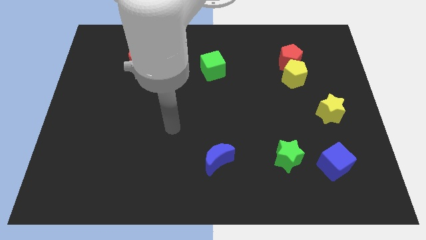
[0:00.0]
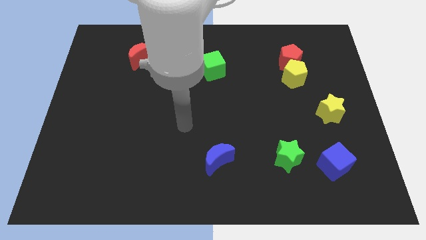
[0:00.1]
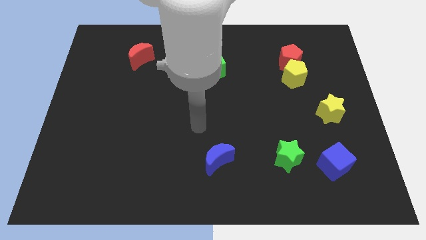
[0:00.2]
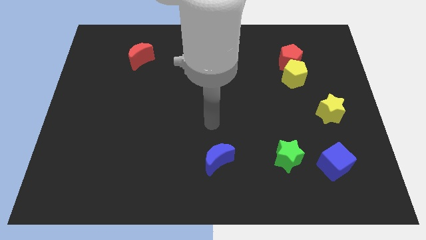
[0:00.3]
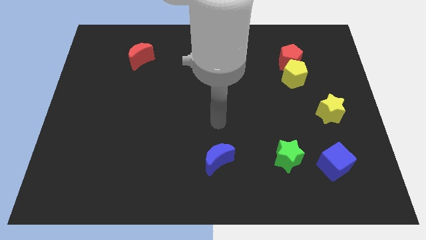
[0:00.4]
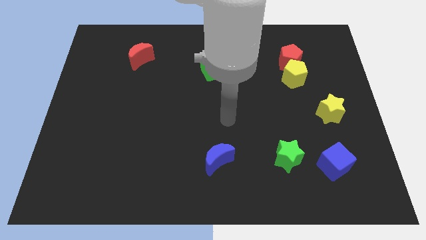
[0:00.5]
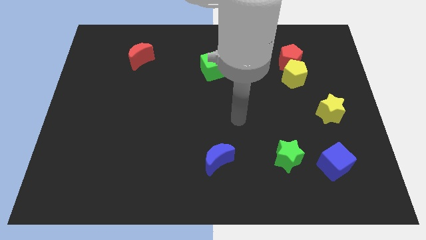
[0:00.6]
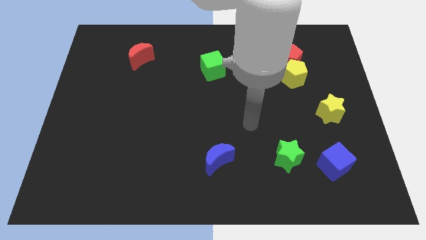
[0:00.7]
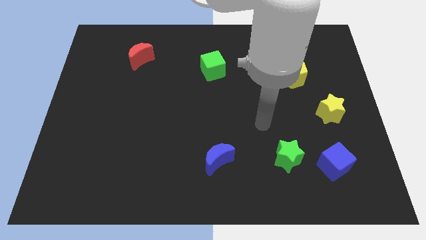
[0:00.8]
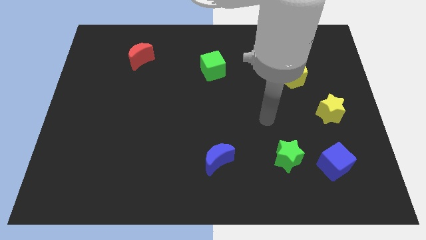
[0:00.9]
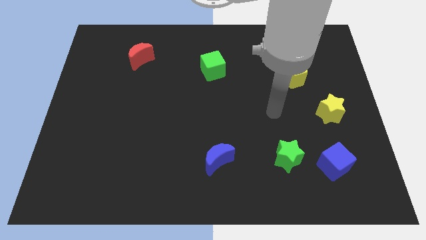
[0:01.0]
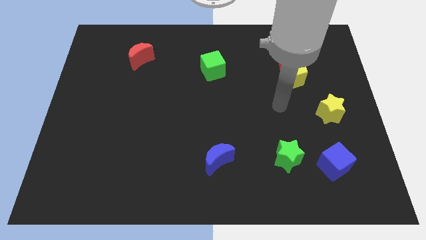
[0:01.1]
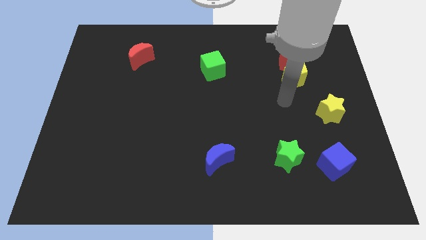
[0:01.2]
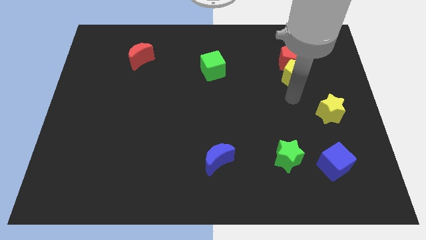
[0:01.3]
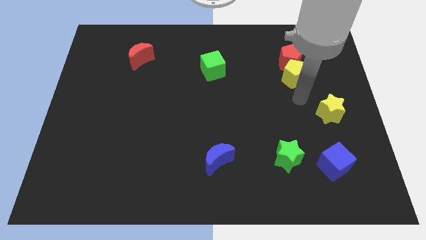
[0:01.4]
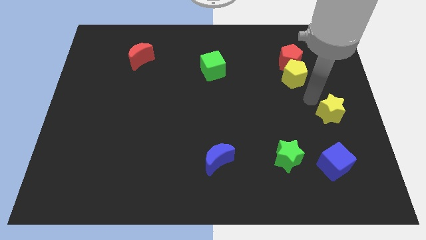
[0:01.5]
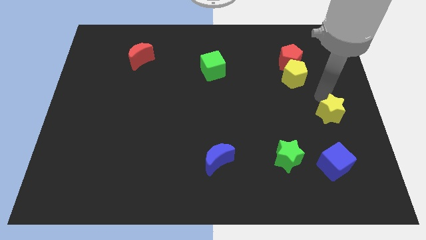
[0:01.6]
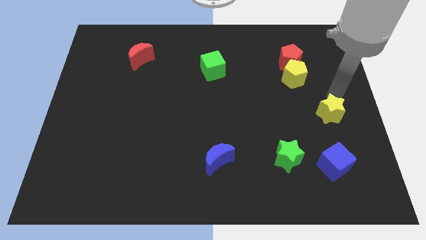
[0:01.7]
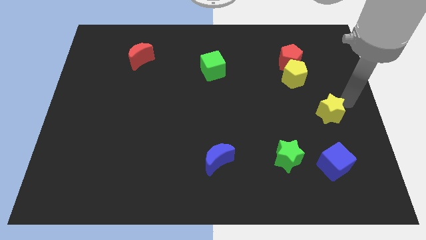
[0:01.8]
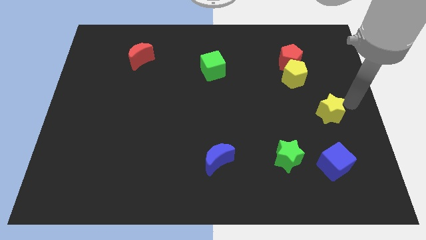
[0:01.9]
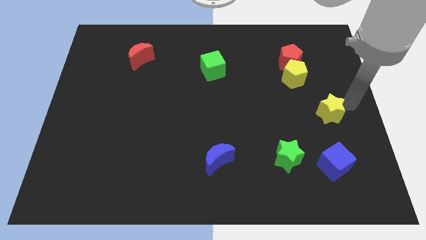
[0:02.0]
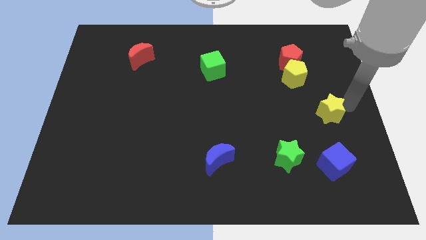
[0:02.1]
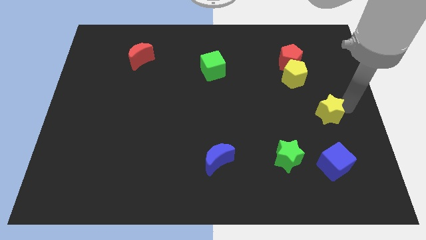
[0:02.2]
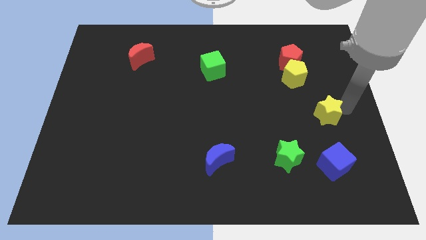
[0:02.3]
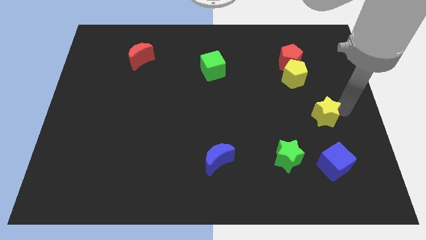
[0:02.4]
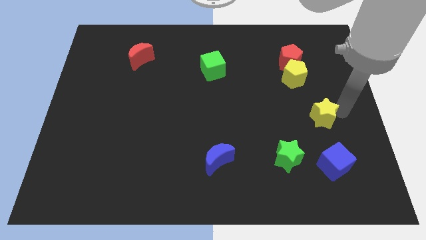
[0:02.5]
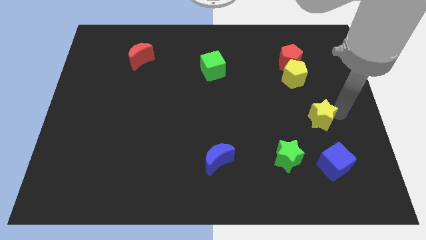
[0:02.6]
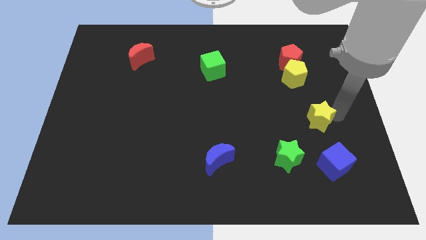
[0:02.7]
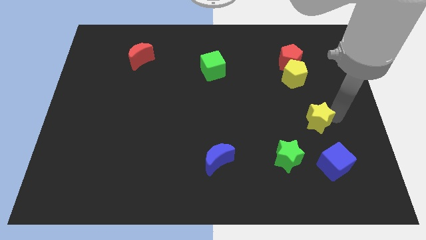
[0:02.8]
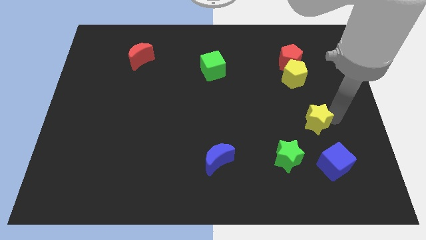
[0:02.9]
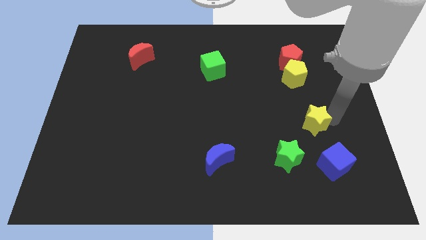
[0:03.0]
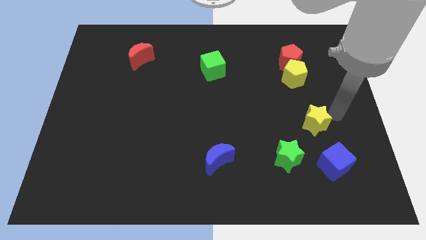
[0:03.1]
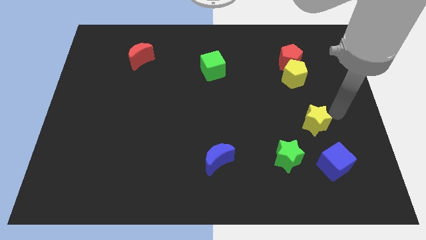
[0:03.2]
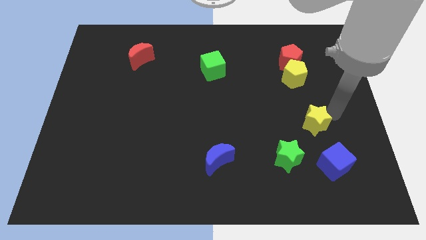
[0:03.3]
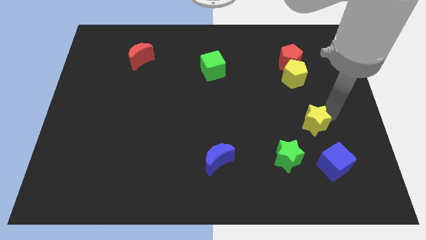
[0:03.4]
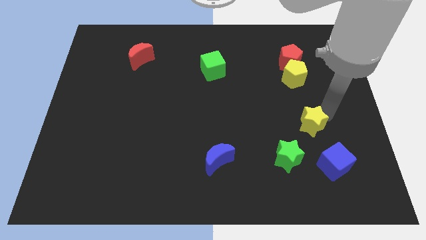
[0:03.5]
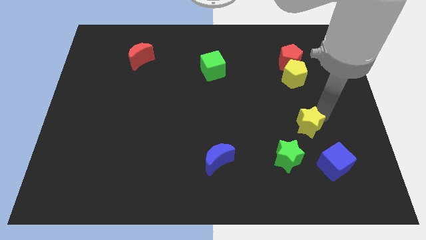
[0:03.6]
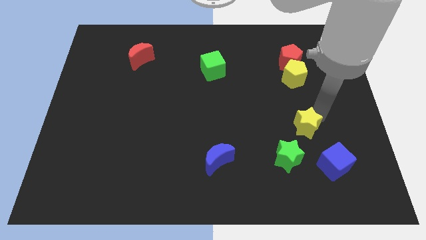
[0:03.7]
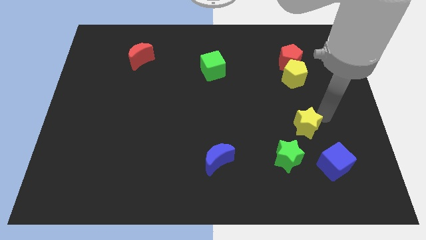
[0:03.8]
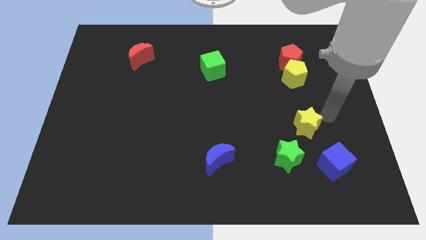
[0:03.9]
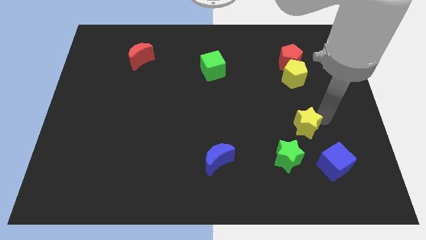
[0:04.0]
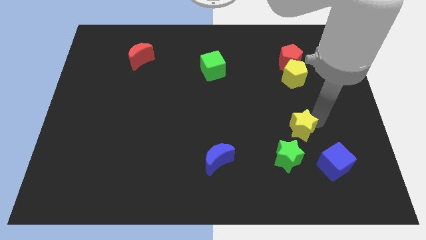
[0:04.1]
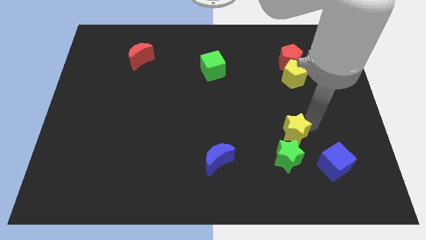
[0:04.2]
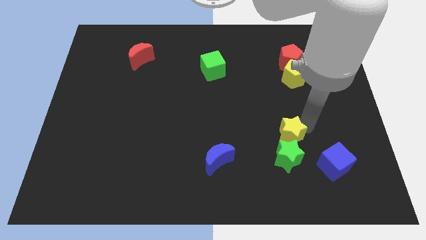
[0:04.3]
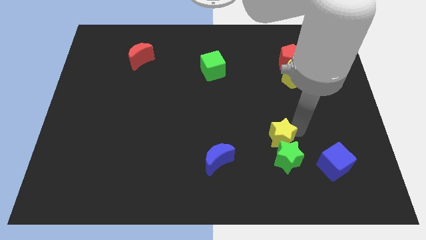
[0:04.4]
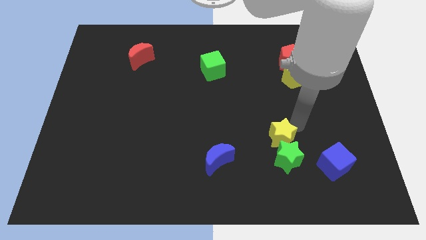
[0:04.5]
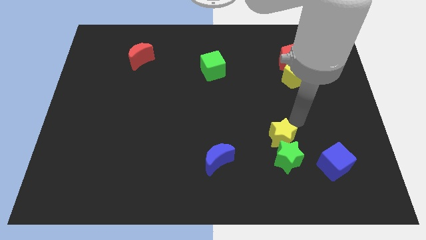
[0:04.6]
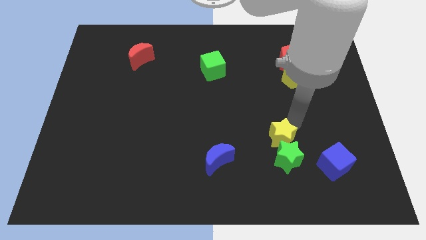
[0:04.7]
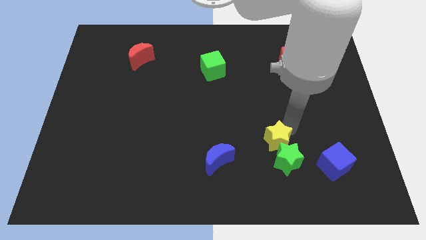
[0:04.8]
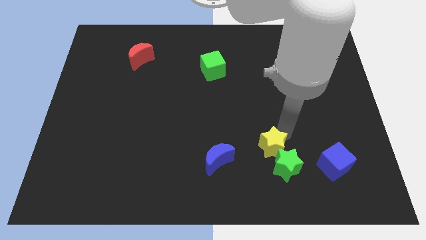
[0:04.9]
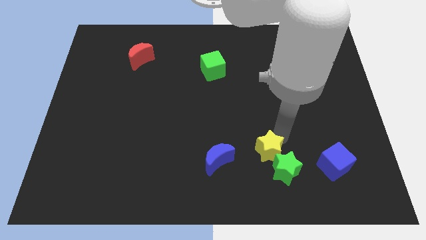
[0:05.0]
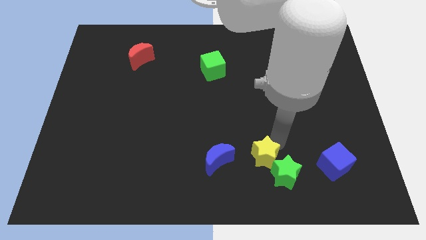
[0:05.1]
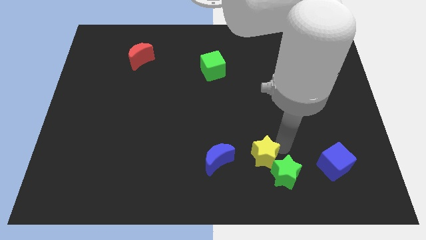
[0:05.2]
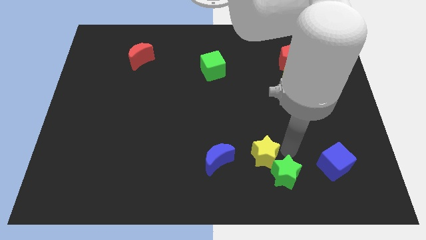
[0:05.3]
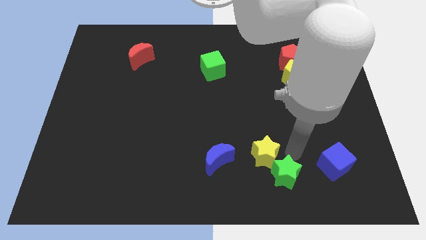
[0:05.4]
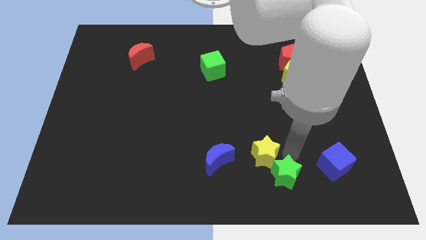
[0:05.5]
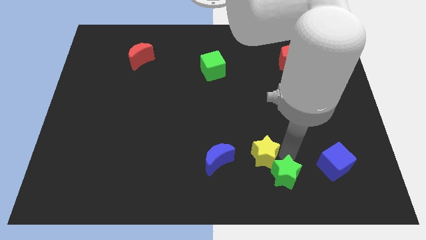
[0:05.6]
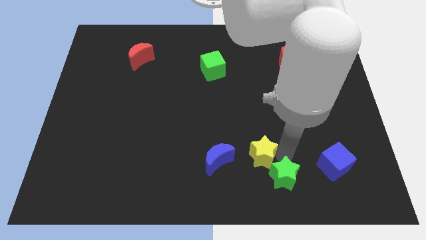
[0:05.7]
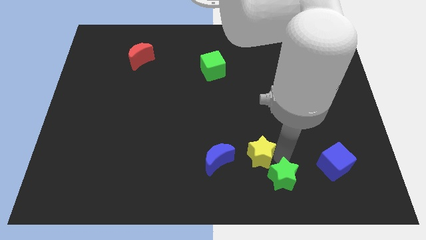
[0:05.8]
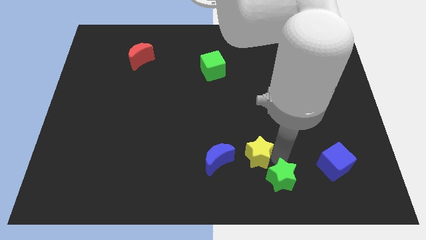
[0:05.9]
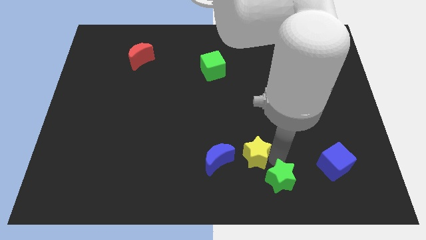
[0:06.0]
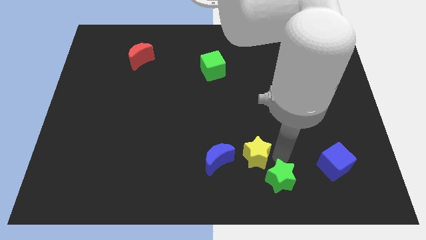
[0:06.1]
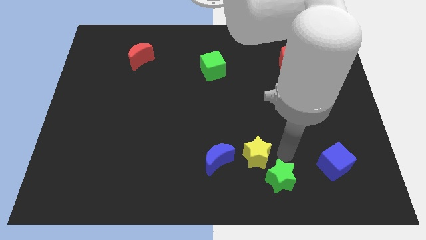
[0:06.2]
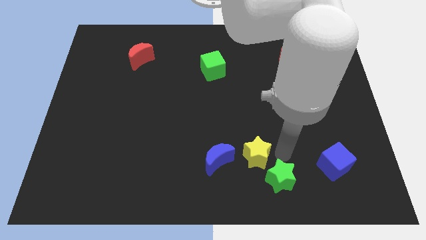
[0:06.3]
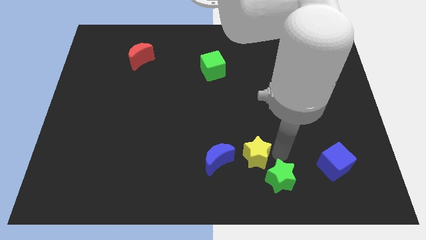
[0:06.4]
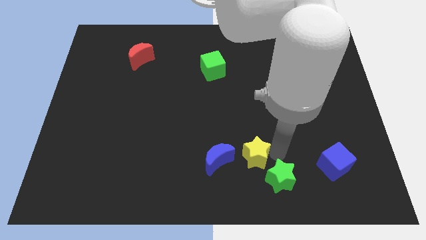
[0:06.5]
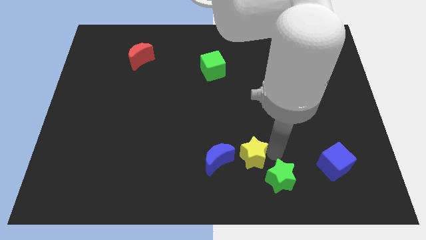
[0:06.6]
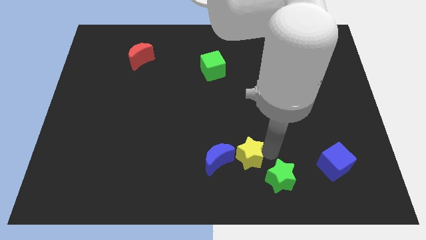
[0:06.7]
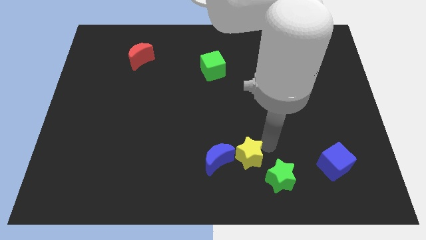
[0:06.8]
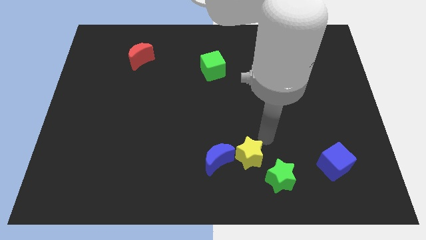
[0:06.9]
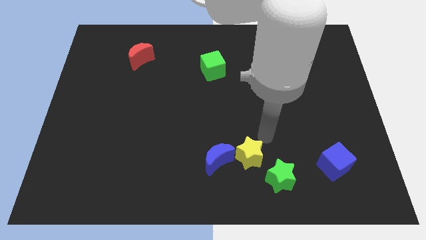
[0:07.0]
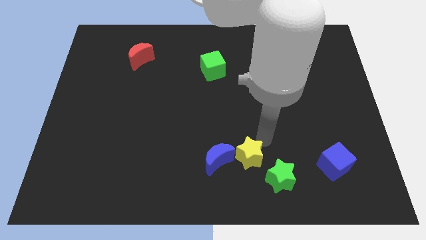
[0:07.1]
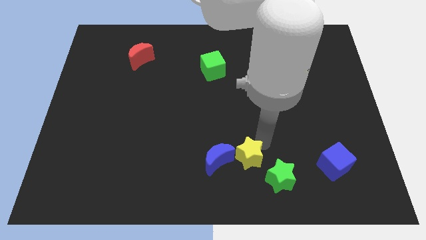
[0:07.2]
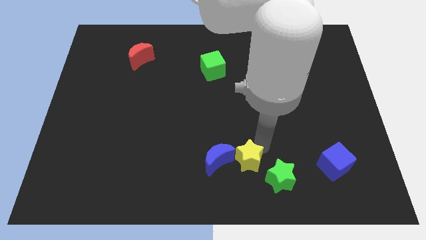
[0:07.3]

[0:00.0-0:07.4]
slide the yellow star to the bottom side
